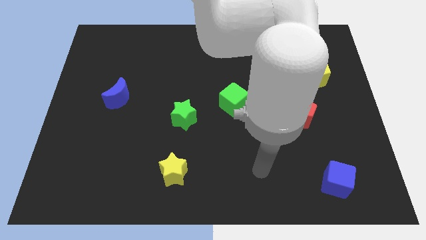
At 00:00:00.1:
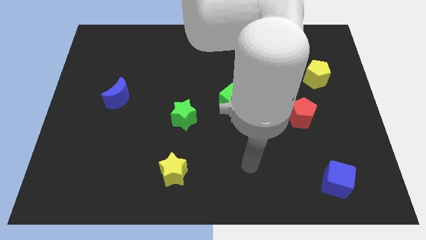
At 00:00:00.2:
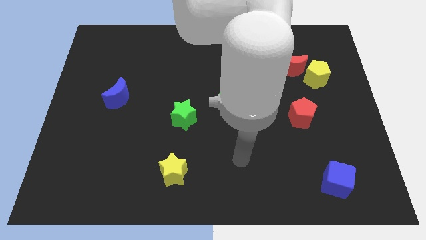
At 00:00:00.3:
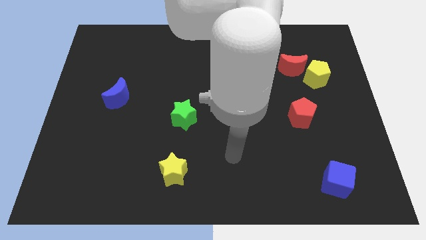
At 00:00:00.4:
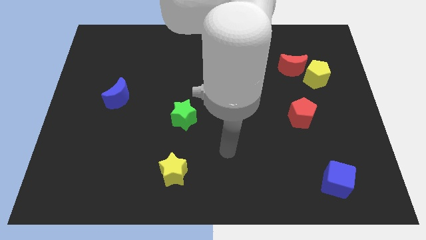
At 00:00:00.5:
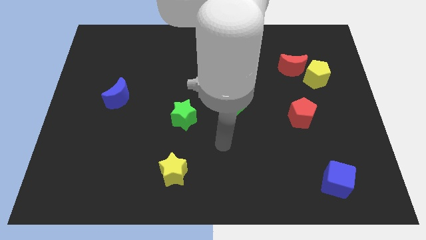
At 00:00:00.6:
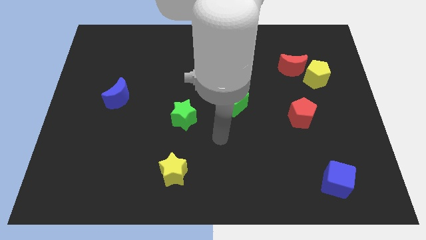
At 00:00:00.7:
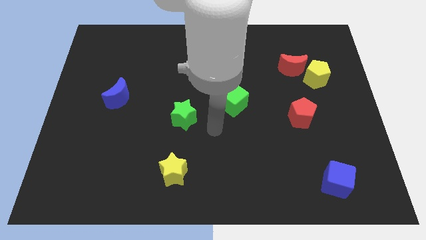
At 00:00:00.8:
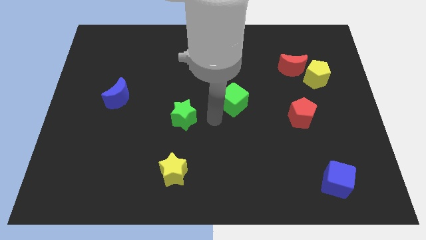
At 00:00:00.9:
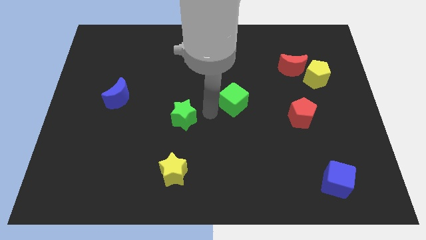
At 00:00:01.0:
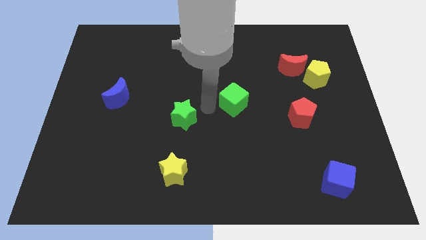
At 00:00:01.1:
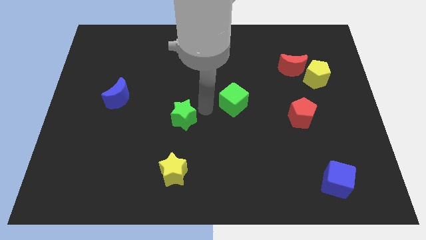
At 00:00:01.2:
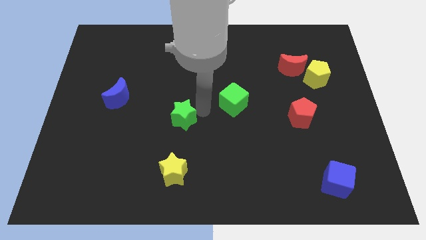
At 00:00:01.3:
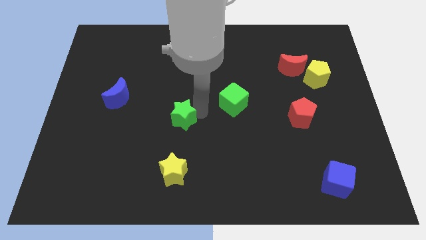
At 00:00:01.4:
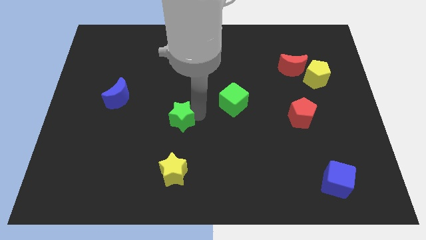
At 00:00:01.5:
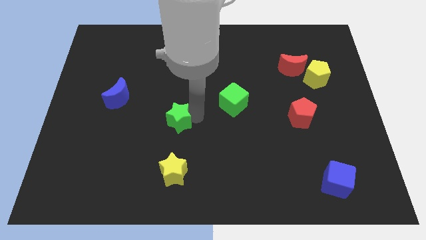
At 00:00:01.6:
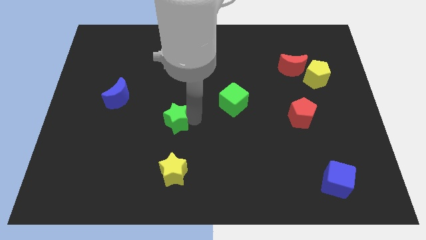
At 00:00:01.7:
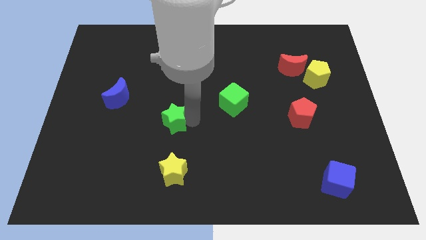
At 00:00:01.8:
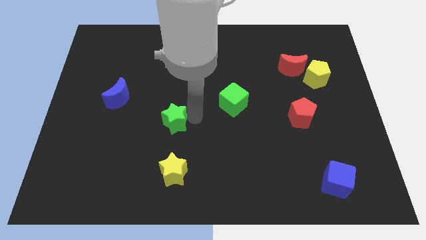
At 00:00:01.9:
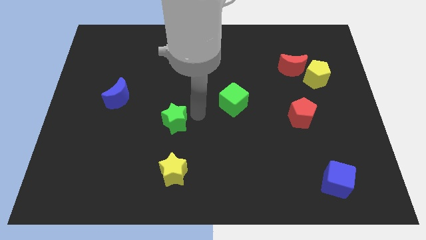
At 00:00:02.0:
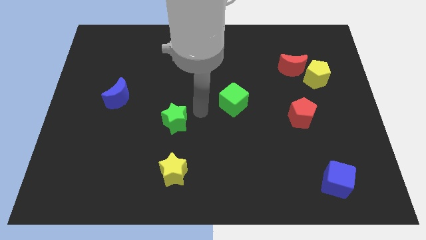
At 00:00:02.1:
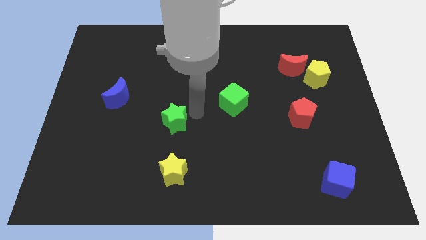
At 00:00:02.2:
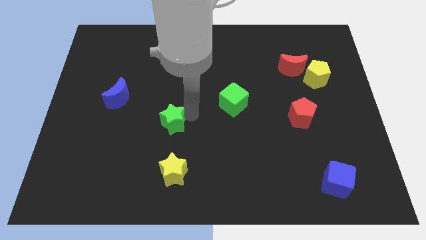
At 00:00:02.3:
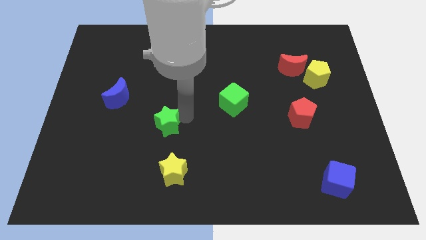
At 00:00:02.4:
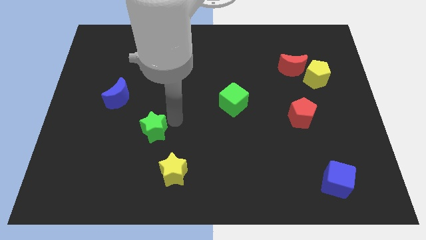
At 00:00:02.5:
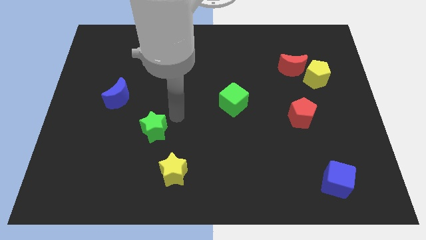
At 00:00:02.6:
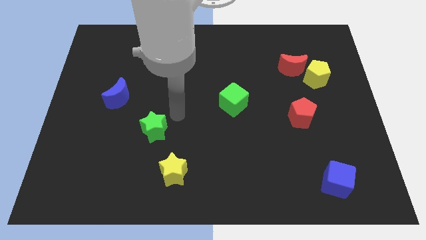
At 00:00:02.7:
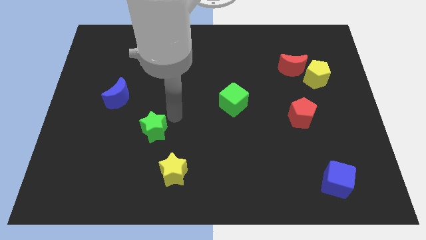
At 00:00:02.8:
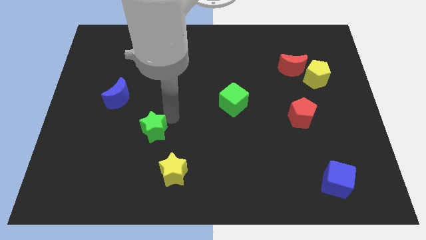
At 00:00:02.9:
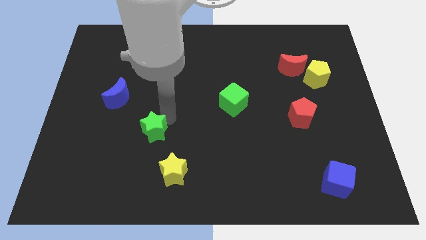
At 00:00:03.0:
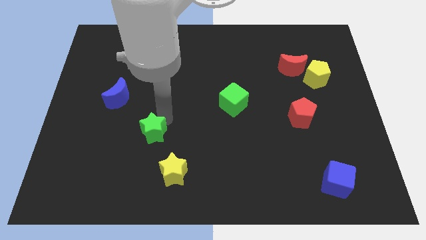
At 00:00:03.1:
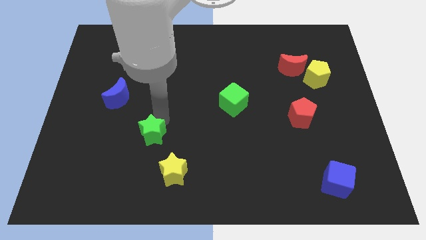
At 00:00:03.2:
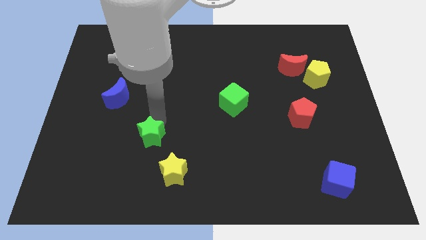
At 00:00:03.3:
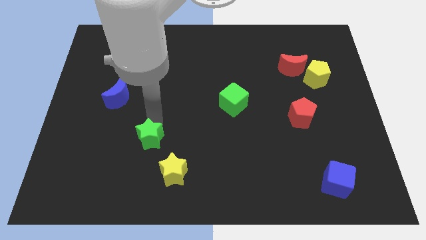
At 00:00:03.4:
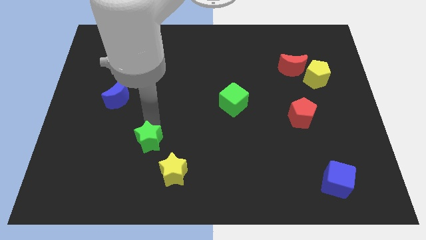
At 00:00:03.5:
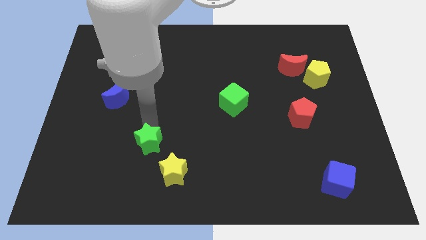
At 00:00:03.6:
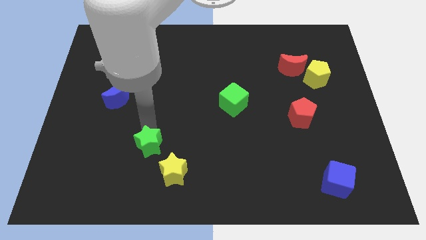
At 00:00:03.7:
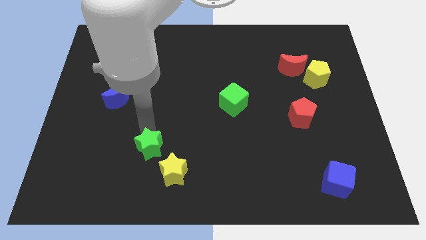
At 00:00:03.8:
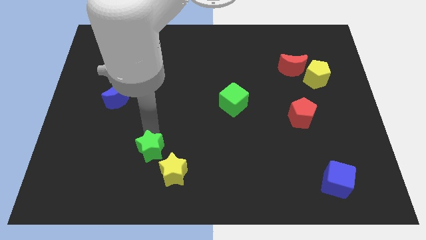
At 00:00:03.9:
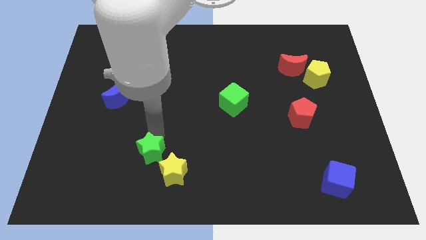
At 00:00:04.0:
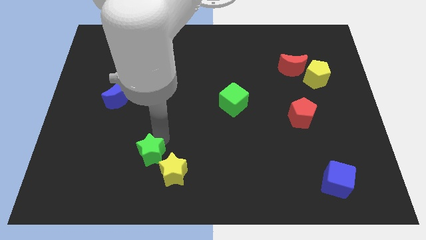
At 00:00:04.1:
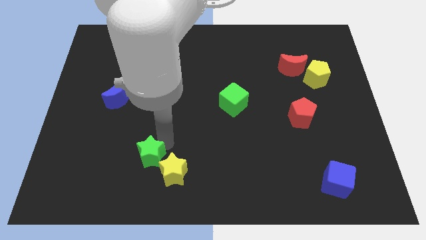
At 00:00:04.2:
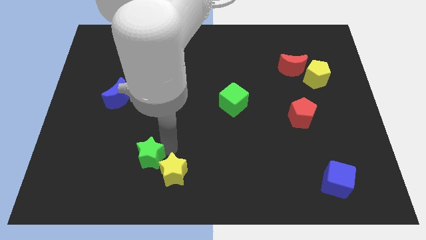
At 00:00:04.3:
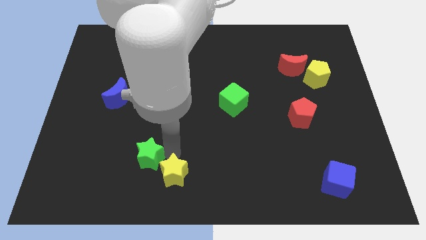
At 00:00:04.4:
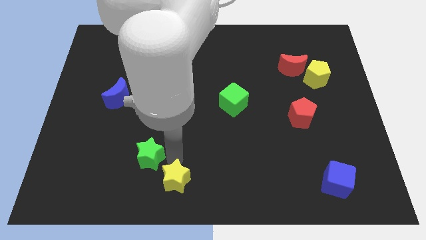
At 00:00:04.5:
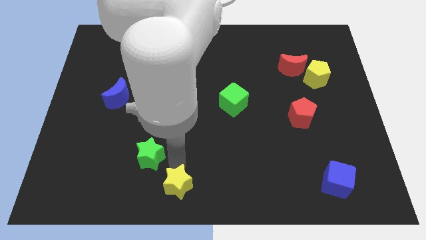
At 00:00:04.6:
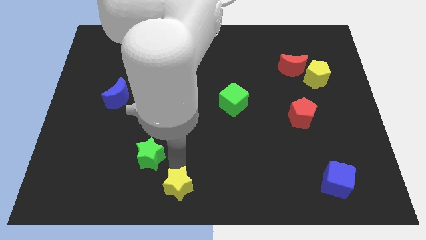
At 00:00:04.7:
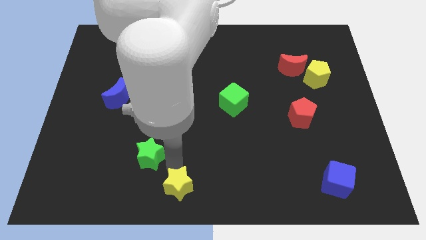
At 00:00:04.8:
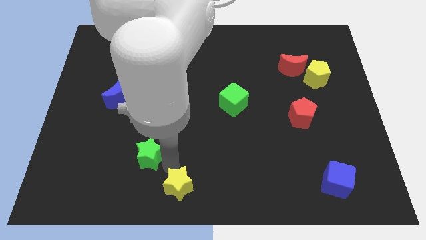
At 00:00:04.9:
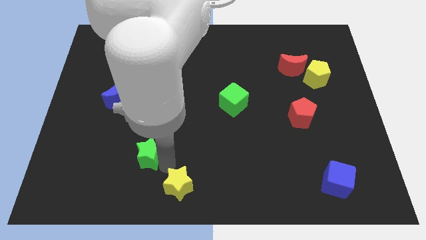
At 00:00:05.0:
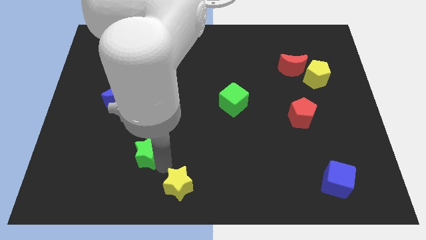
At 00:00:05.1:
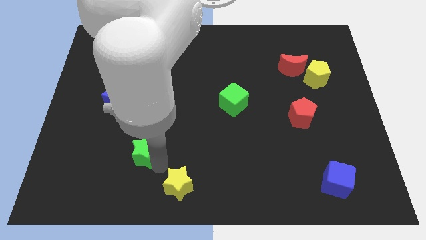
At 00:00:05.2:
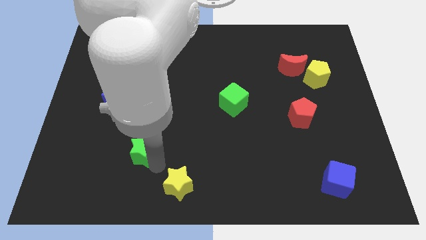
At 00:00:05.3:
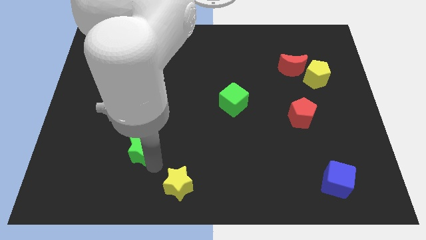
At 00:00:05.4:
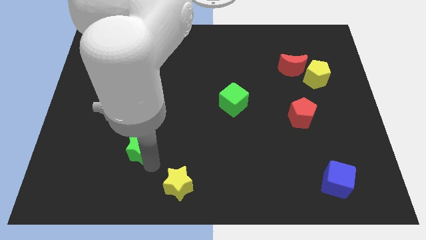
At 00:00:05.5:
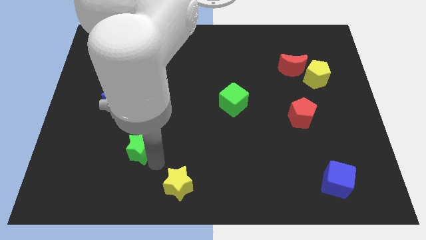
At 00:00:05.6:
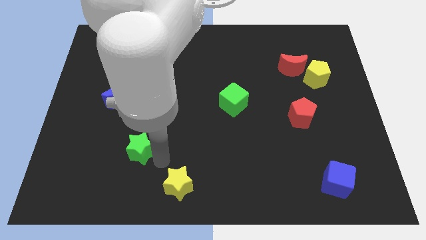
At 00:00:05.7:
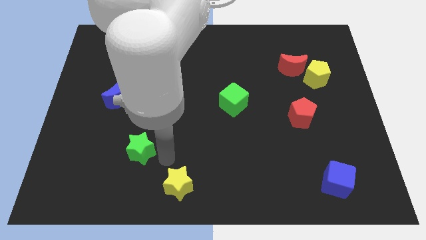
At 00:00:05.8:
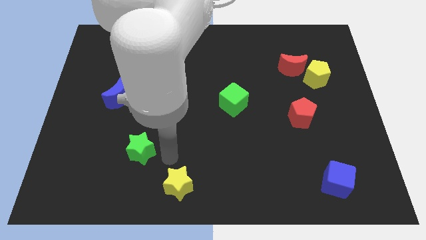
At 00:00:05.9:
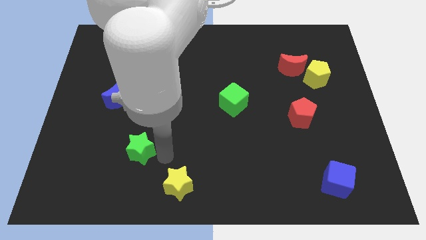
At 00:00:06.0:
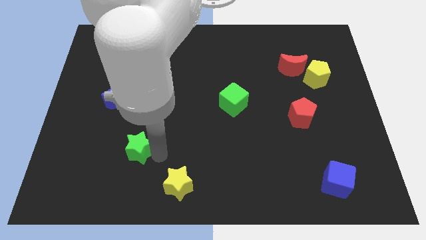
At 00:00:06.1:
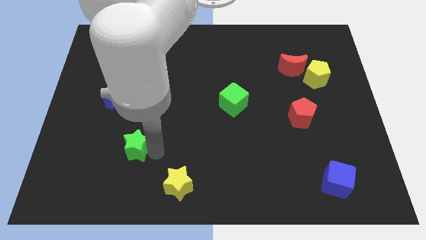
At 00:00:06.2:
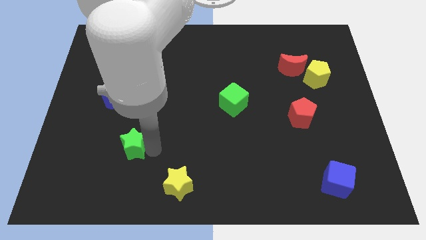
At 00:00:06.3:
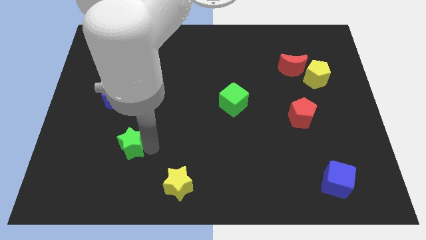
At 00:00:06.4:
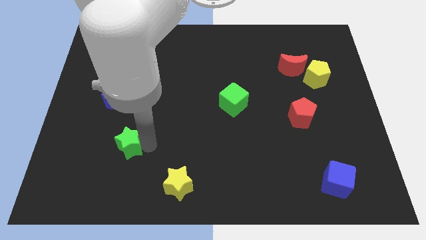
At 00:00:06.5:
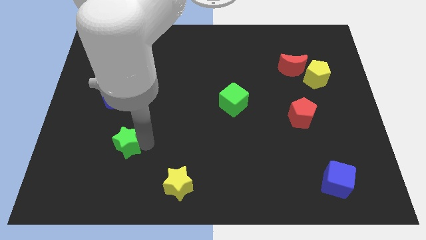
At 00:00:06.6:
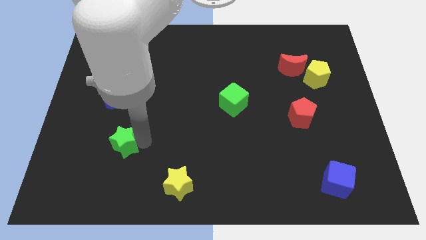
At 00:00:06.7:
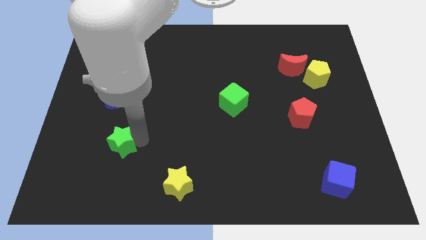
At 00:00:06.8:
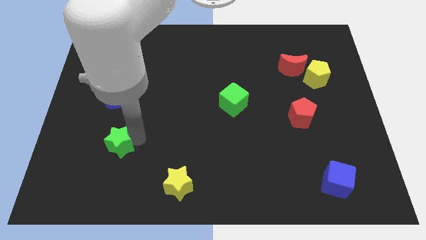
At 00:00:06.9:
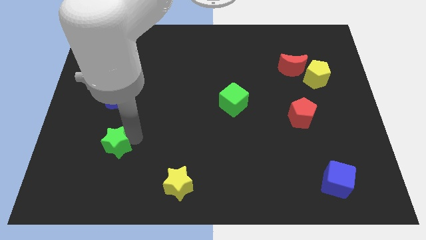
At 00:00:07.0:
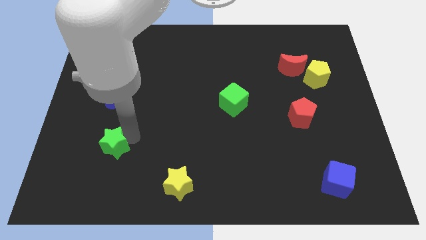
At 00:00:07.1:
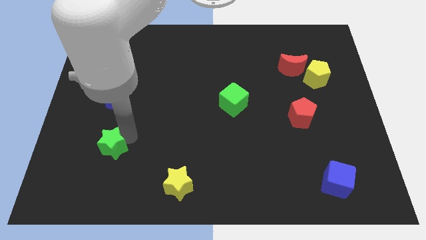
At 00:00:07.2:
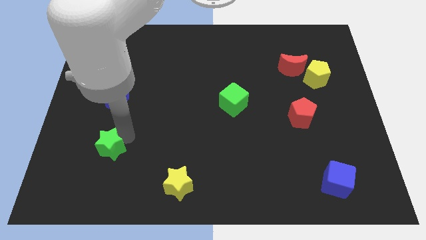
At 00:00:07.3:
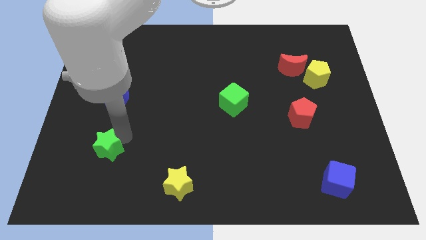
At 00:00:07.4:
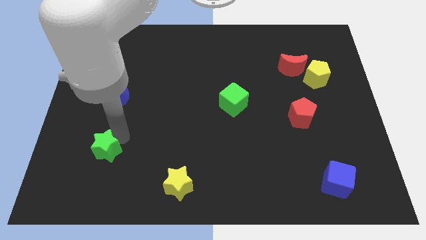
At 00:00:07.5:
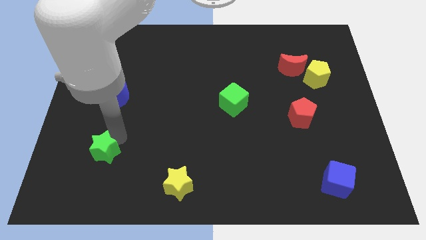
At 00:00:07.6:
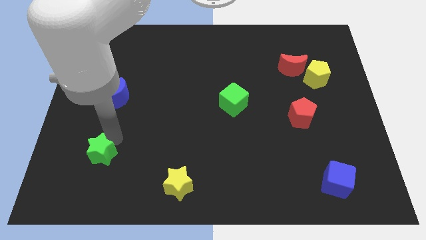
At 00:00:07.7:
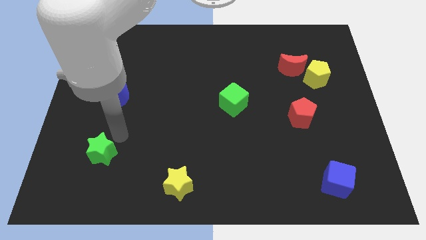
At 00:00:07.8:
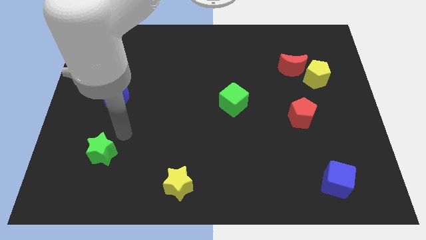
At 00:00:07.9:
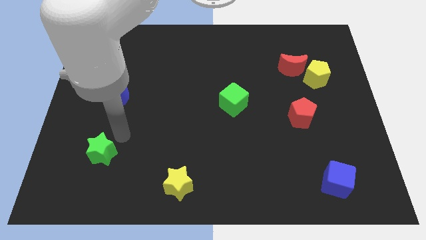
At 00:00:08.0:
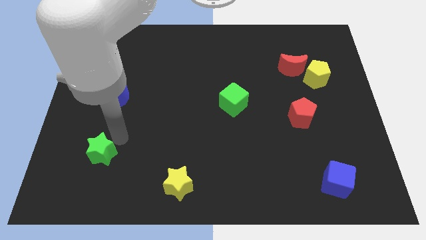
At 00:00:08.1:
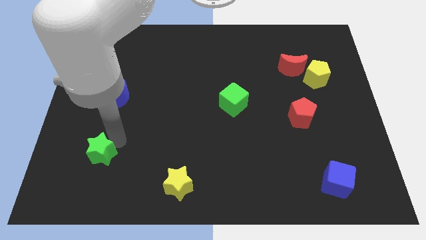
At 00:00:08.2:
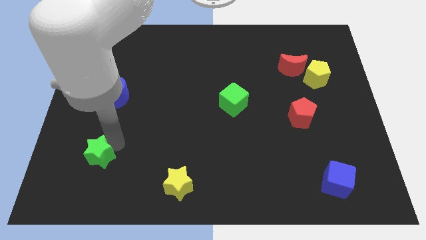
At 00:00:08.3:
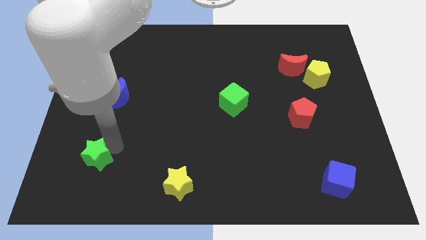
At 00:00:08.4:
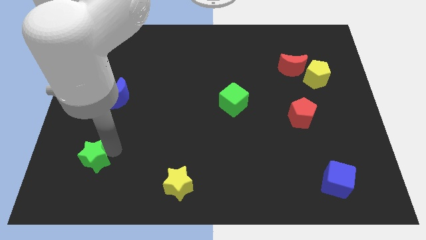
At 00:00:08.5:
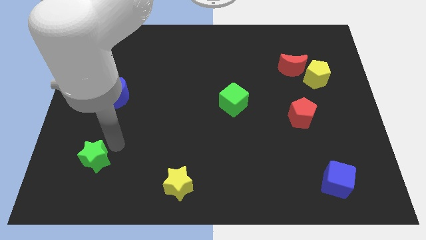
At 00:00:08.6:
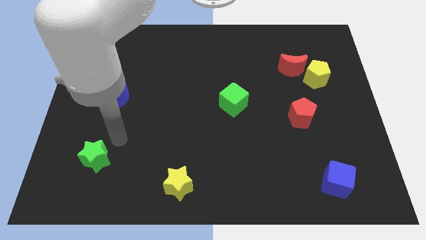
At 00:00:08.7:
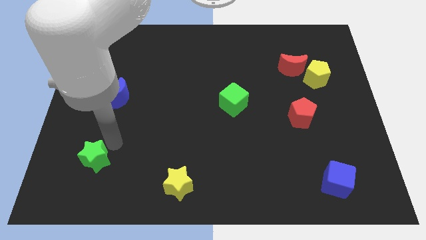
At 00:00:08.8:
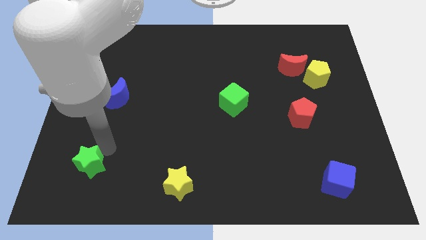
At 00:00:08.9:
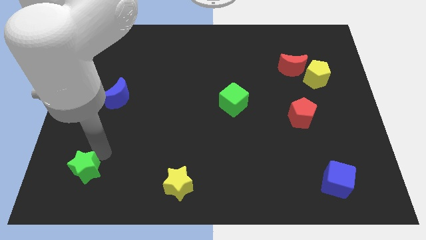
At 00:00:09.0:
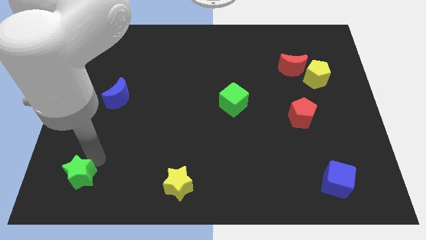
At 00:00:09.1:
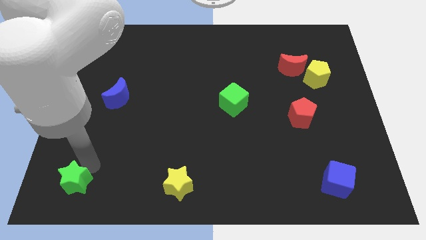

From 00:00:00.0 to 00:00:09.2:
slide the green star to the bottom left corner
